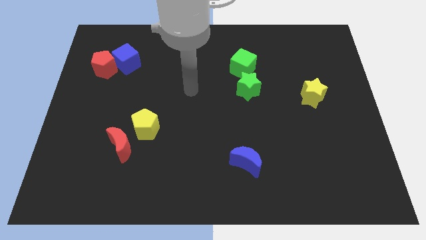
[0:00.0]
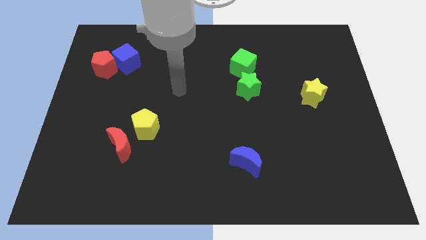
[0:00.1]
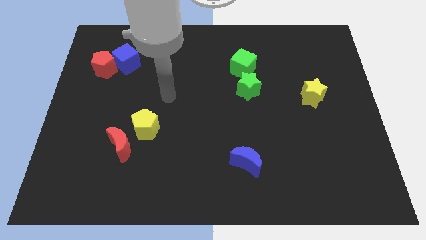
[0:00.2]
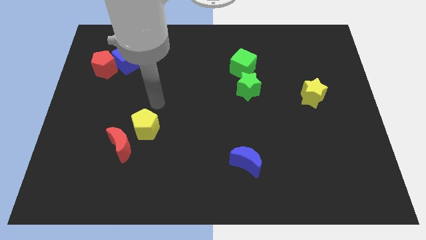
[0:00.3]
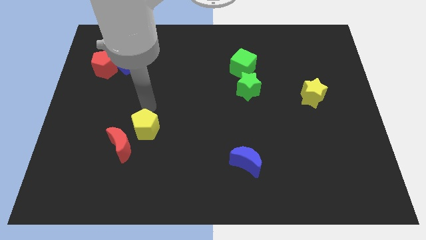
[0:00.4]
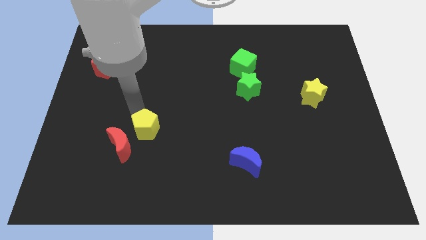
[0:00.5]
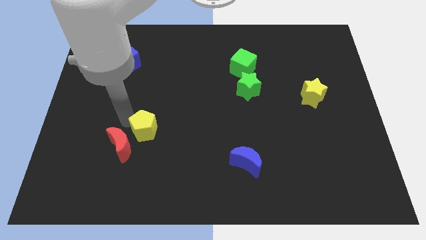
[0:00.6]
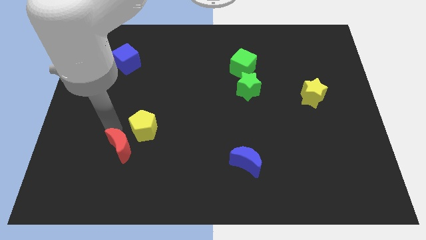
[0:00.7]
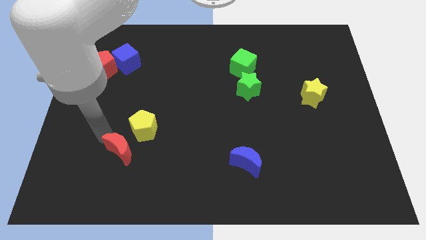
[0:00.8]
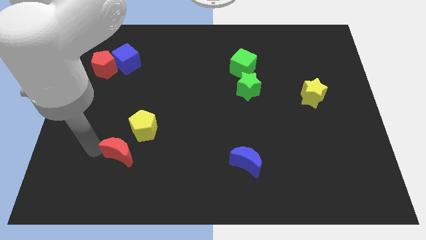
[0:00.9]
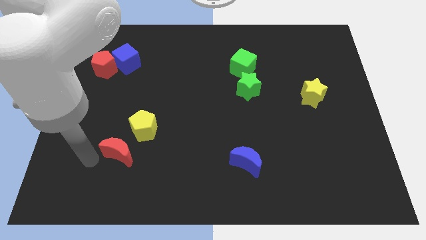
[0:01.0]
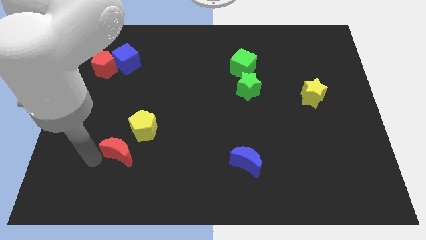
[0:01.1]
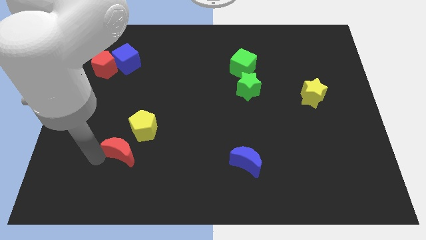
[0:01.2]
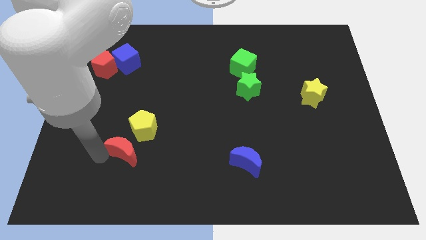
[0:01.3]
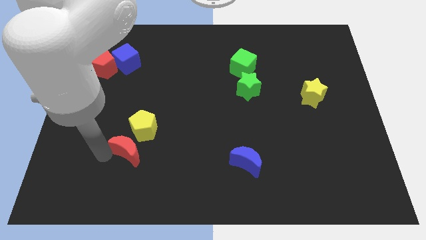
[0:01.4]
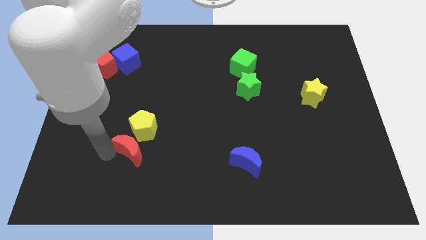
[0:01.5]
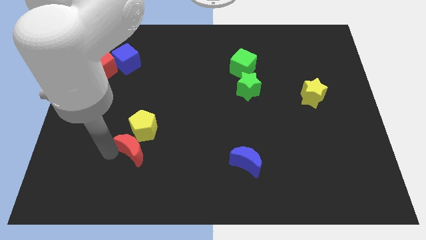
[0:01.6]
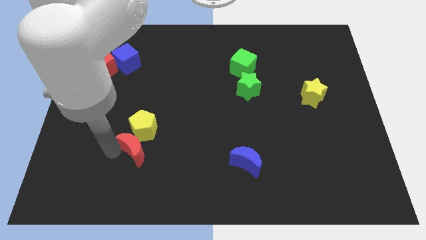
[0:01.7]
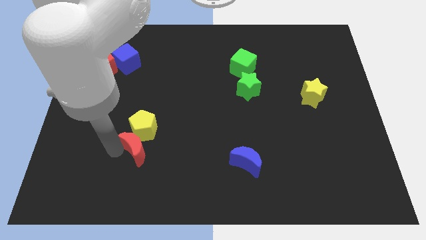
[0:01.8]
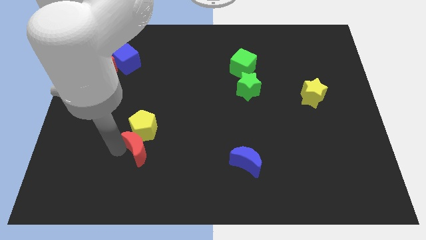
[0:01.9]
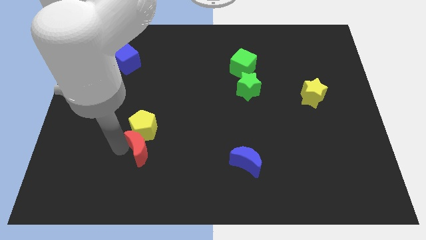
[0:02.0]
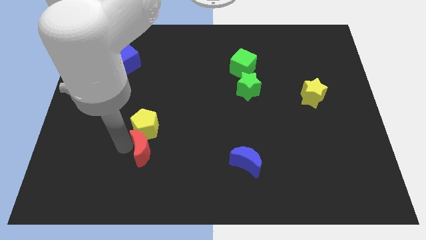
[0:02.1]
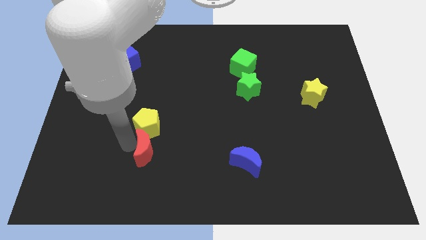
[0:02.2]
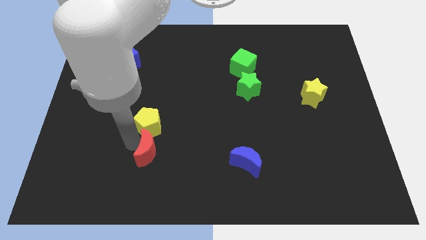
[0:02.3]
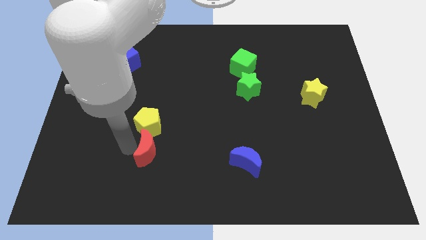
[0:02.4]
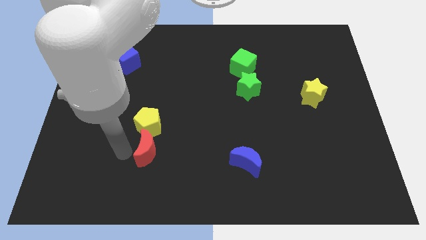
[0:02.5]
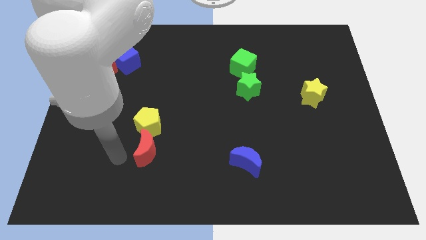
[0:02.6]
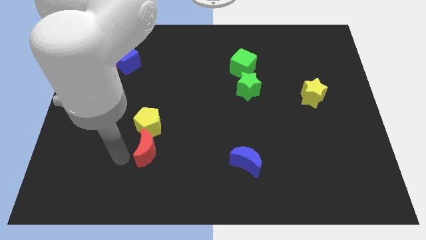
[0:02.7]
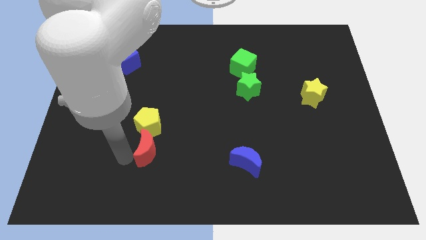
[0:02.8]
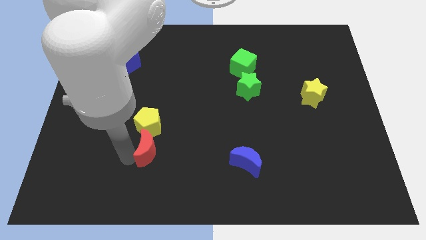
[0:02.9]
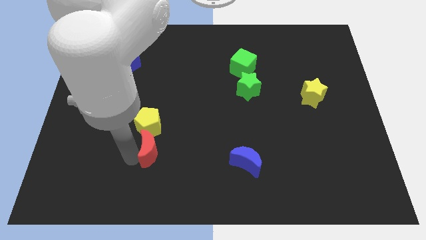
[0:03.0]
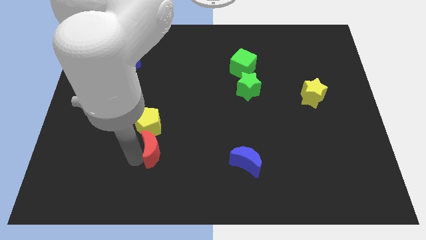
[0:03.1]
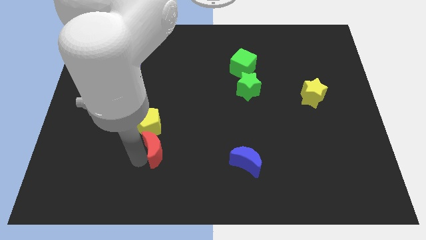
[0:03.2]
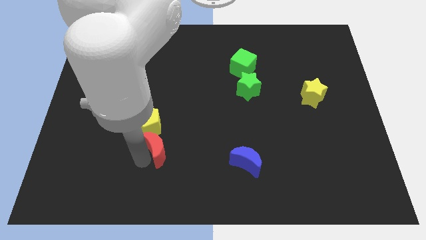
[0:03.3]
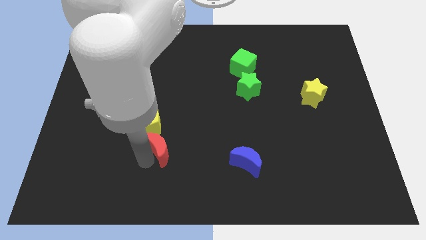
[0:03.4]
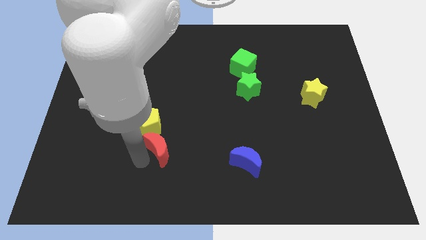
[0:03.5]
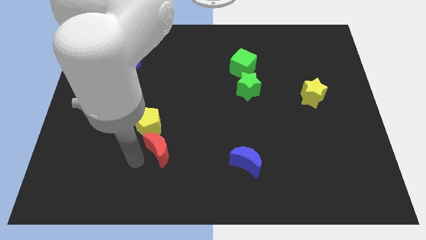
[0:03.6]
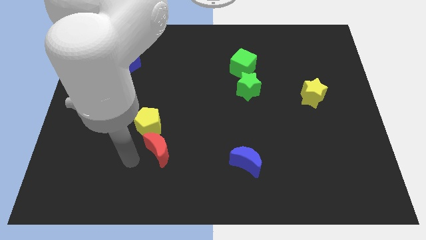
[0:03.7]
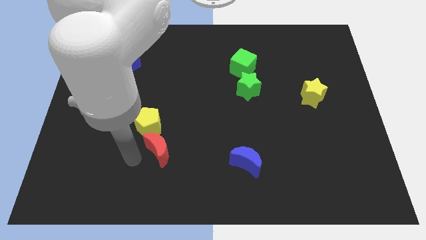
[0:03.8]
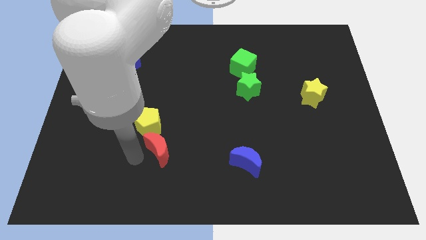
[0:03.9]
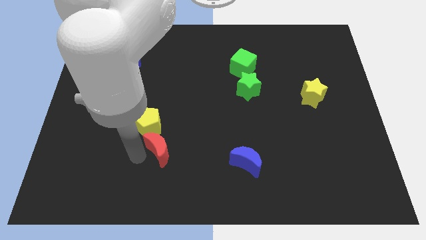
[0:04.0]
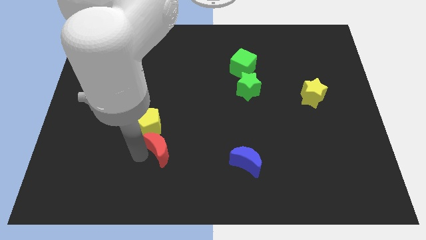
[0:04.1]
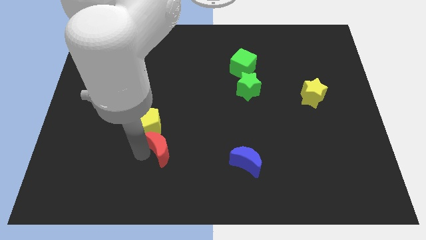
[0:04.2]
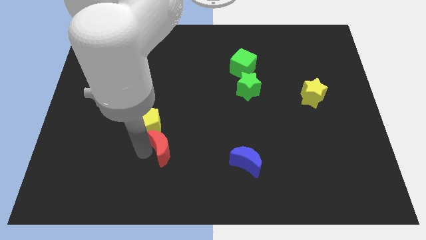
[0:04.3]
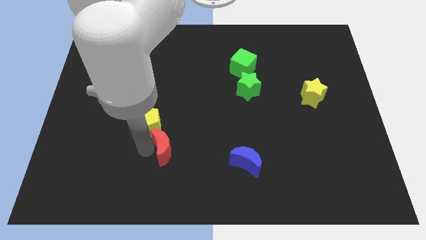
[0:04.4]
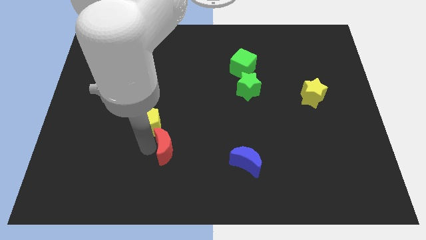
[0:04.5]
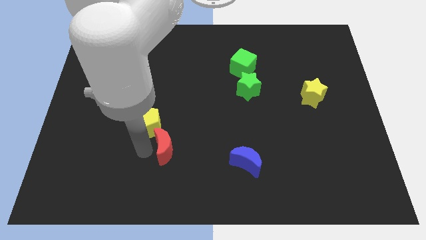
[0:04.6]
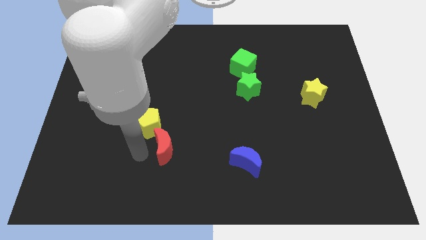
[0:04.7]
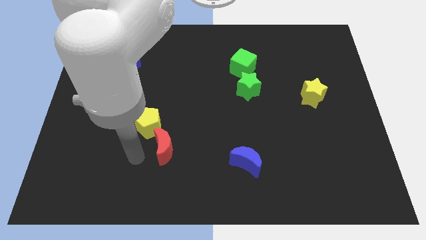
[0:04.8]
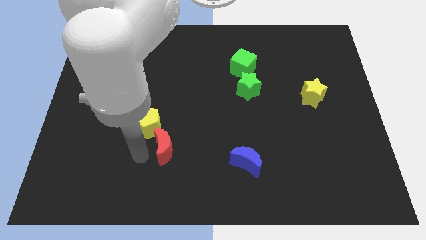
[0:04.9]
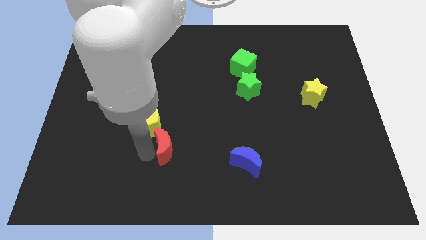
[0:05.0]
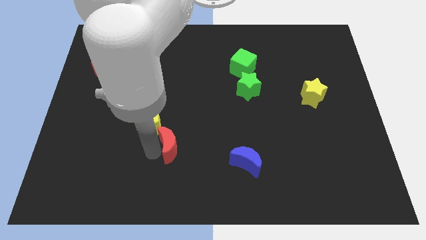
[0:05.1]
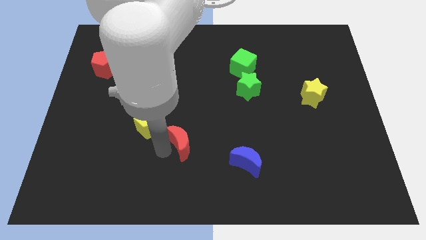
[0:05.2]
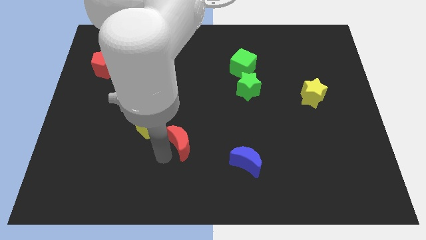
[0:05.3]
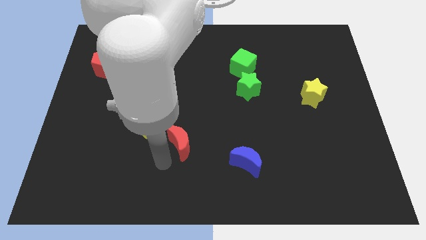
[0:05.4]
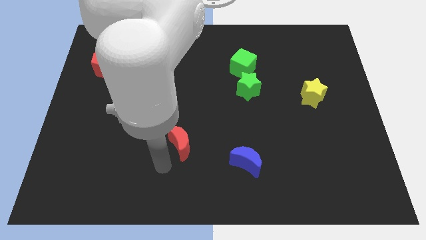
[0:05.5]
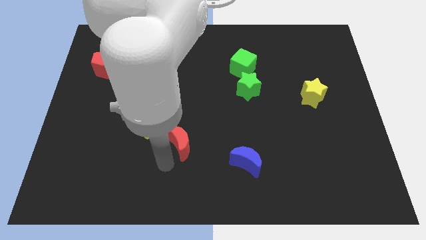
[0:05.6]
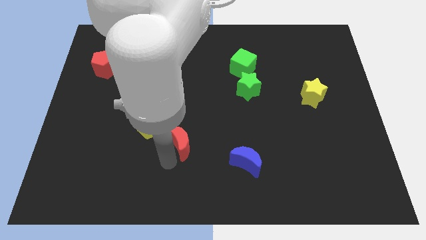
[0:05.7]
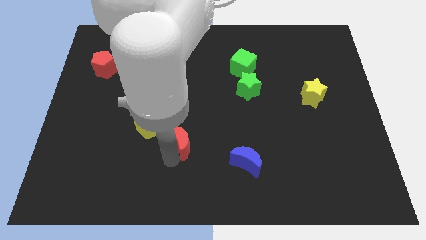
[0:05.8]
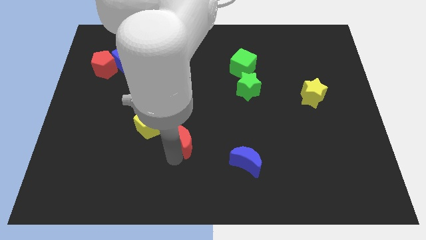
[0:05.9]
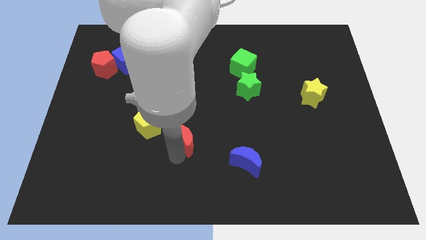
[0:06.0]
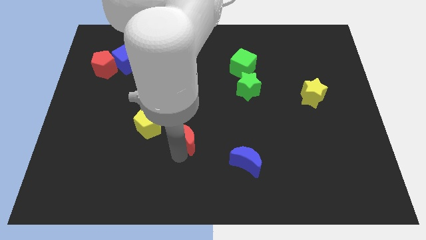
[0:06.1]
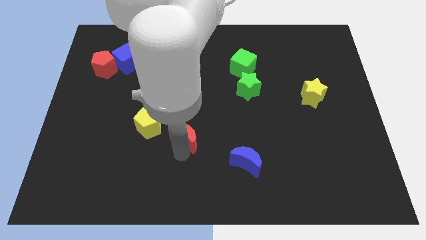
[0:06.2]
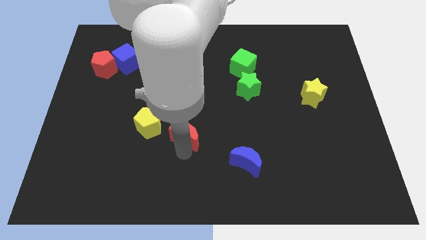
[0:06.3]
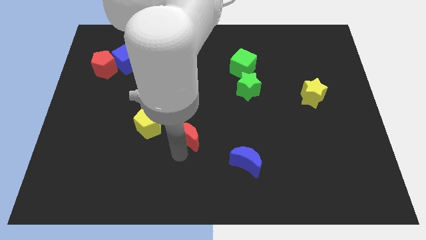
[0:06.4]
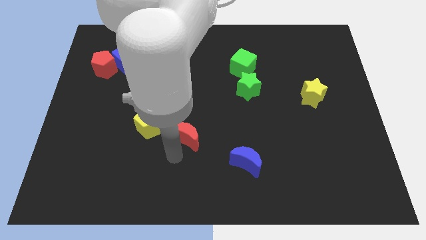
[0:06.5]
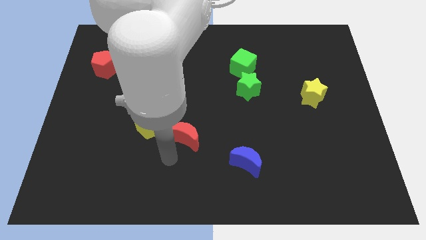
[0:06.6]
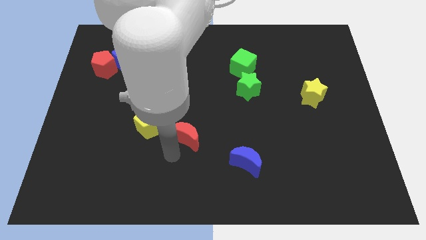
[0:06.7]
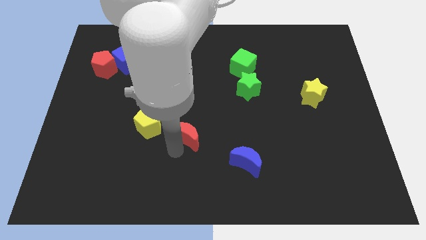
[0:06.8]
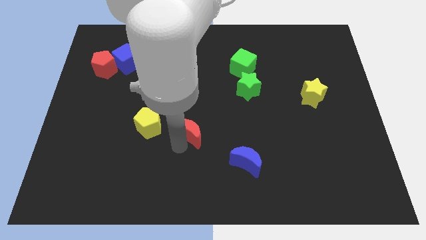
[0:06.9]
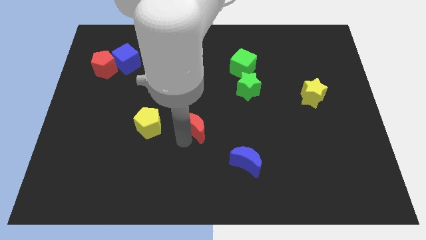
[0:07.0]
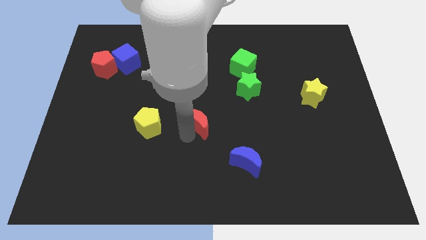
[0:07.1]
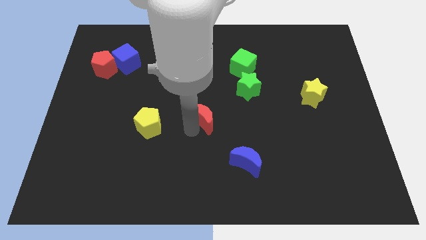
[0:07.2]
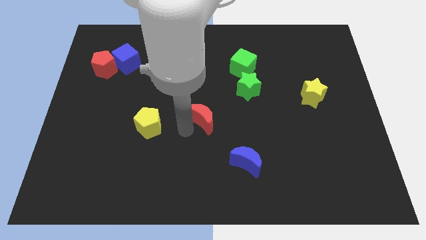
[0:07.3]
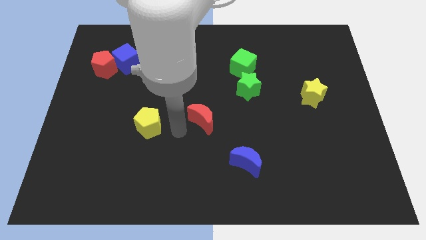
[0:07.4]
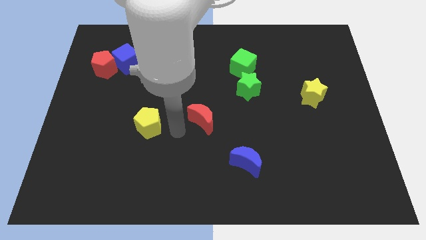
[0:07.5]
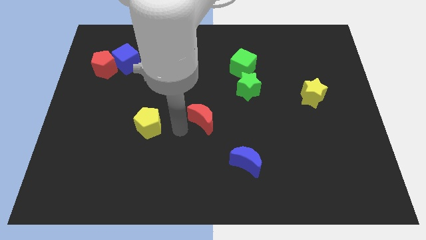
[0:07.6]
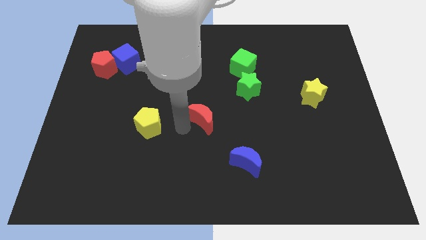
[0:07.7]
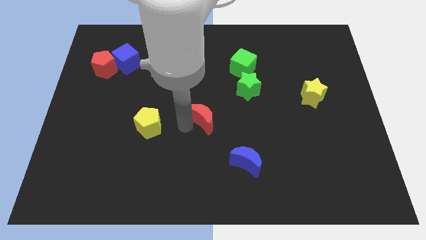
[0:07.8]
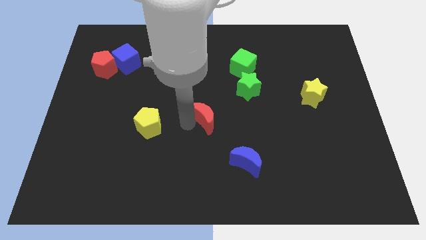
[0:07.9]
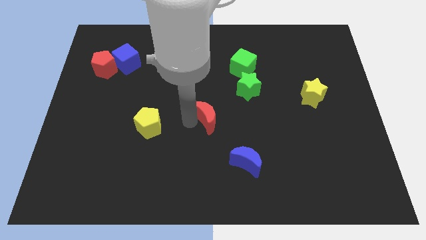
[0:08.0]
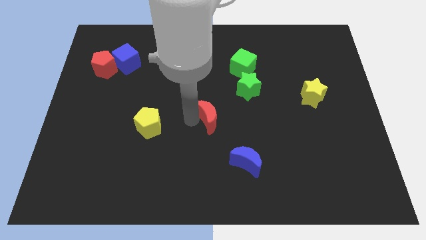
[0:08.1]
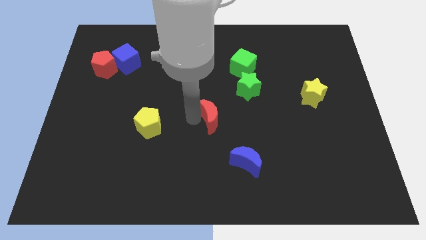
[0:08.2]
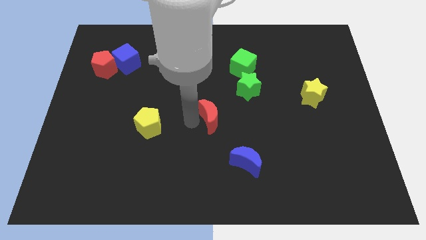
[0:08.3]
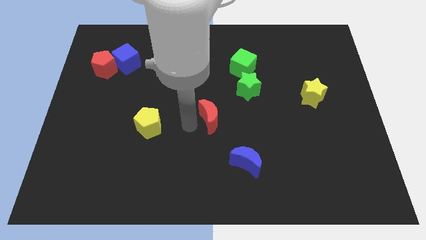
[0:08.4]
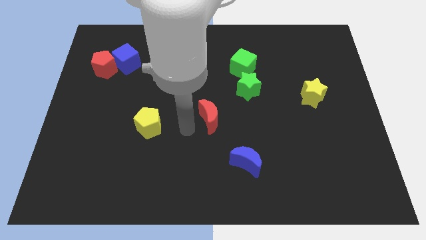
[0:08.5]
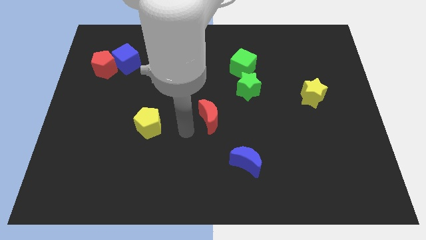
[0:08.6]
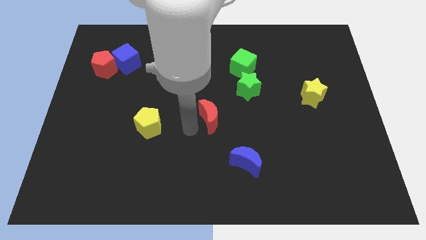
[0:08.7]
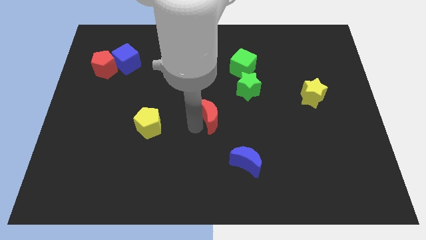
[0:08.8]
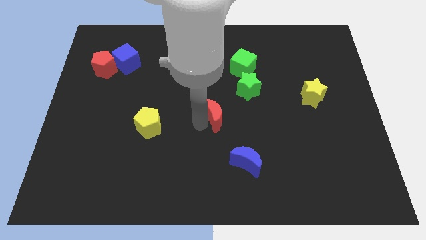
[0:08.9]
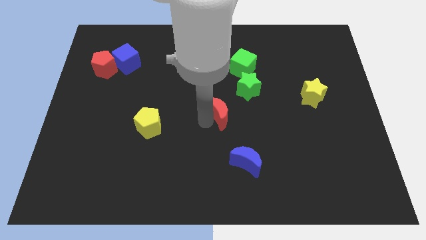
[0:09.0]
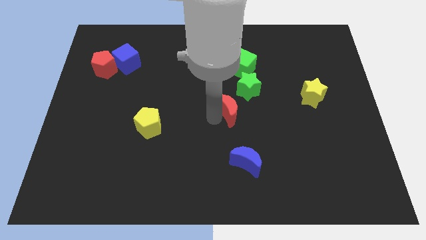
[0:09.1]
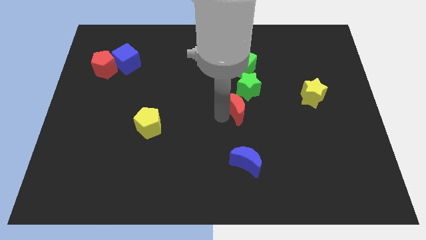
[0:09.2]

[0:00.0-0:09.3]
push the red moon to the bottom side of the green cube
